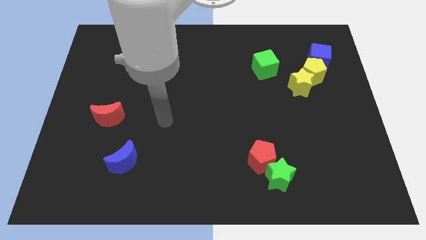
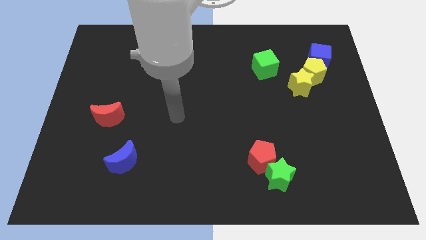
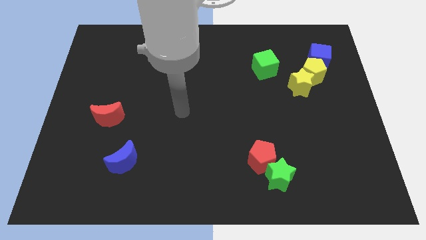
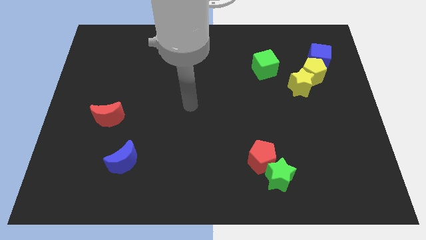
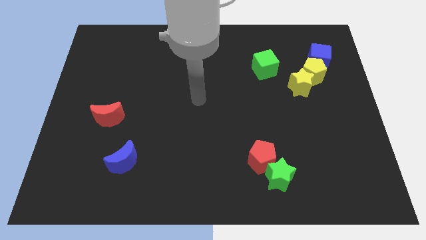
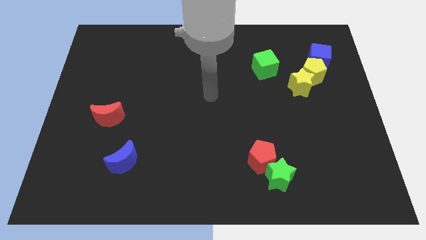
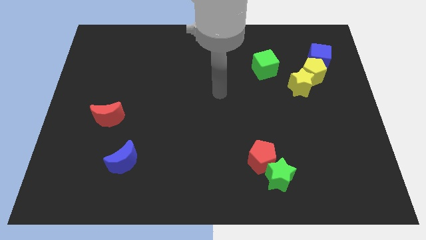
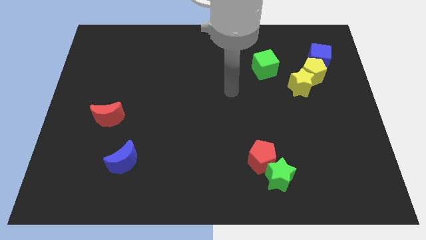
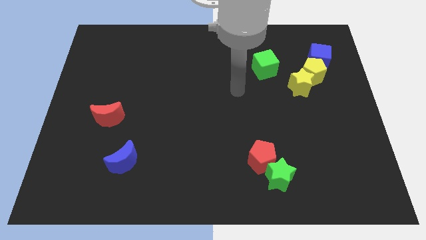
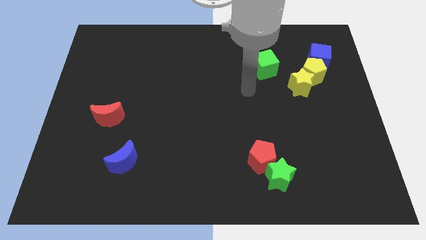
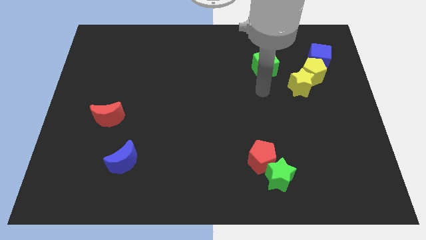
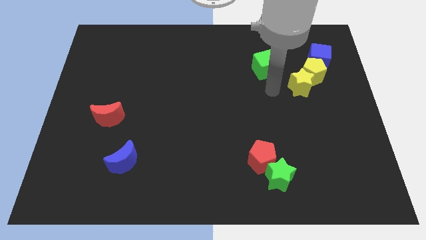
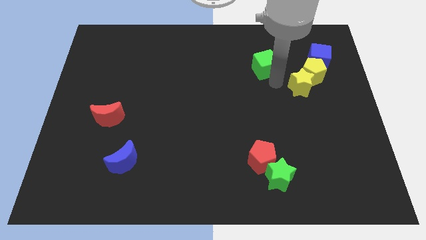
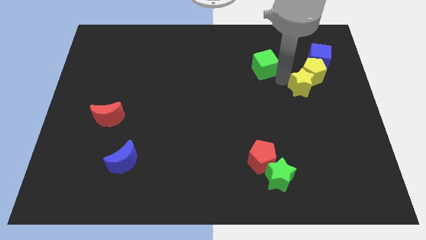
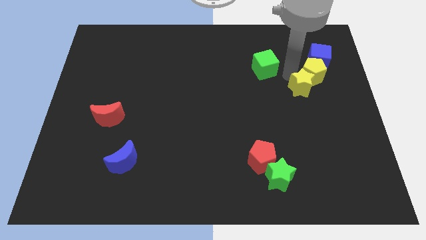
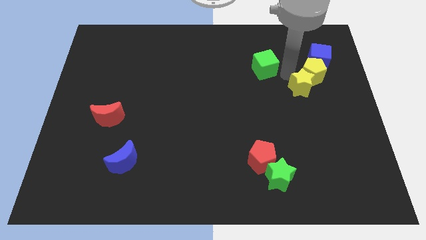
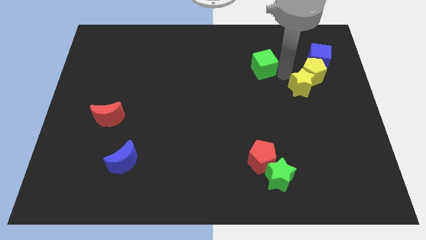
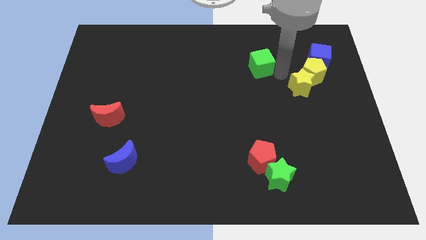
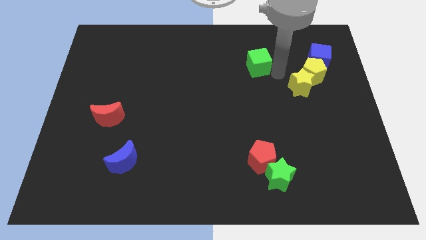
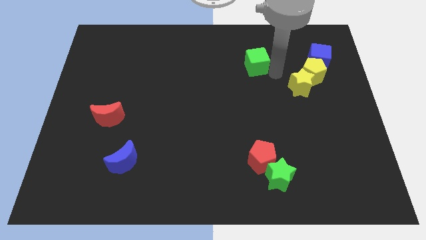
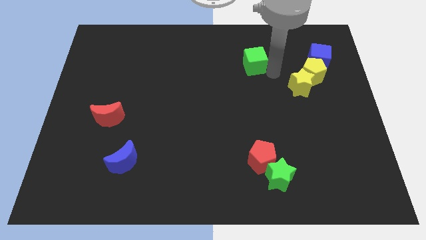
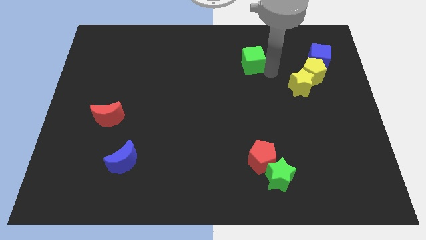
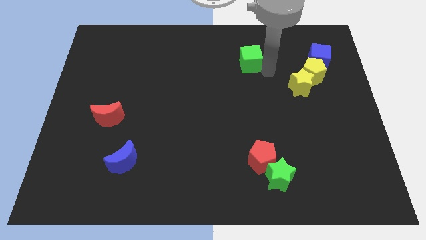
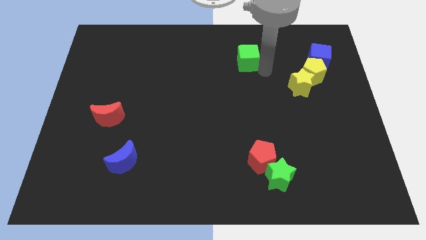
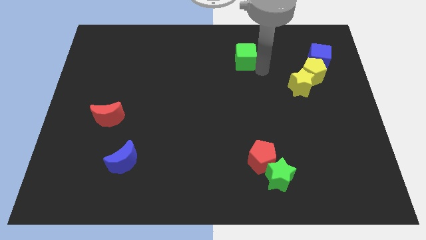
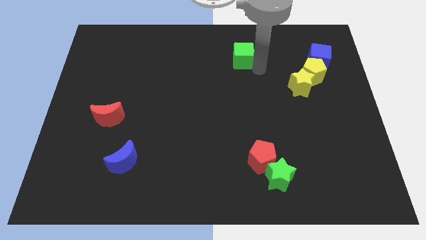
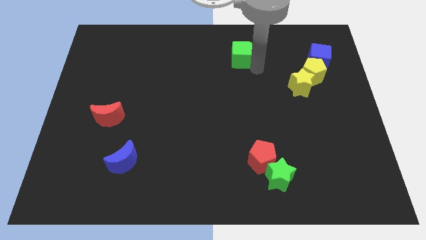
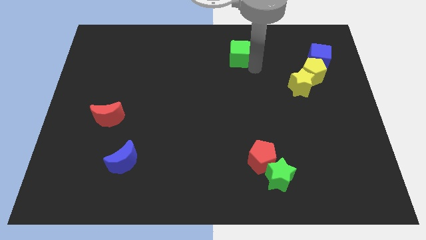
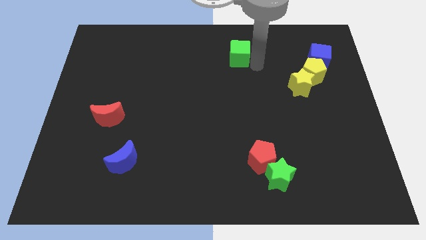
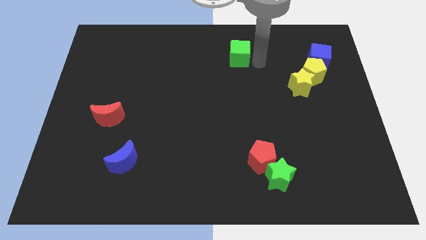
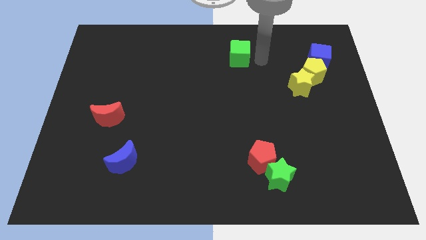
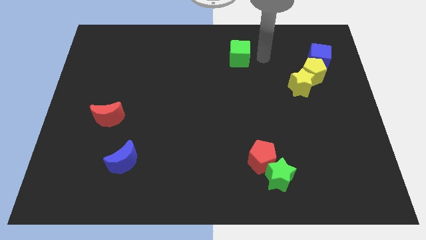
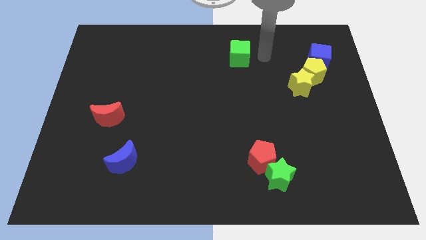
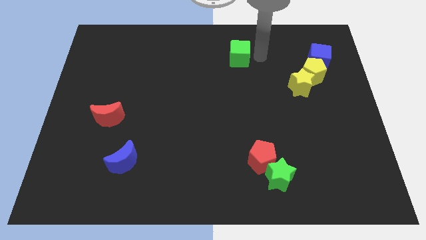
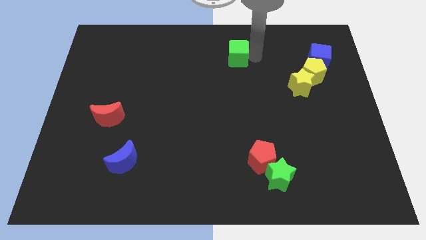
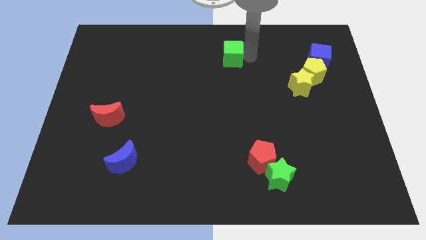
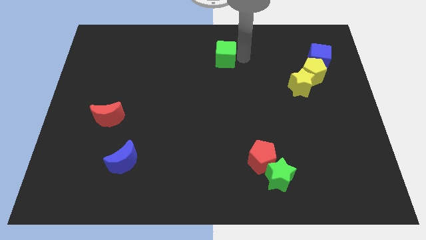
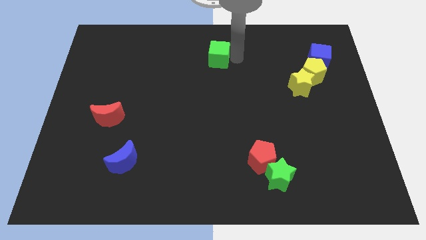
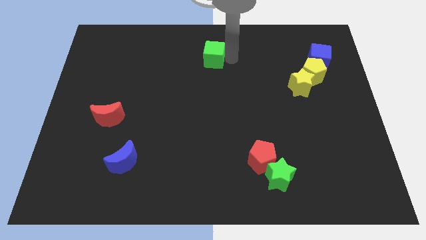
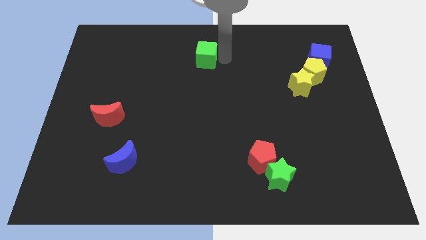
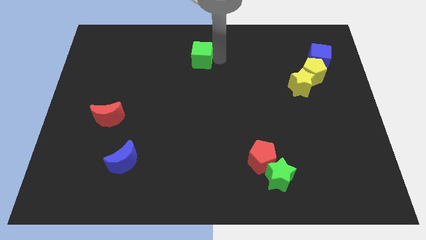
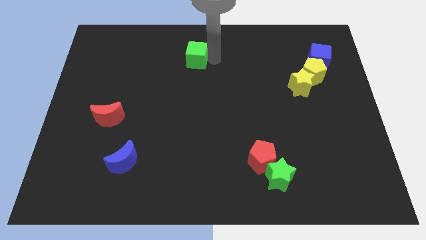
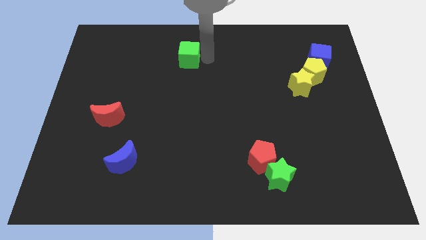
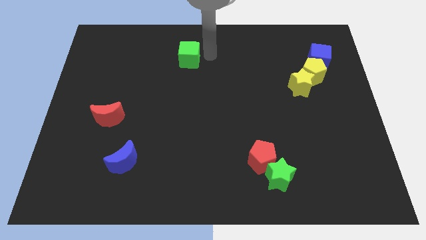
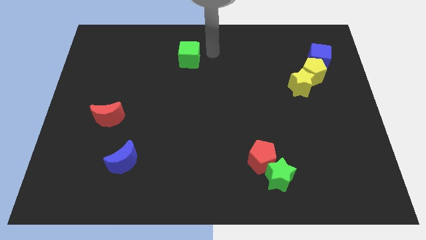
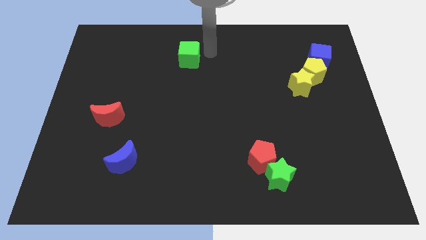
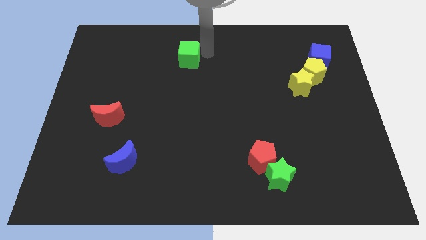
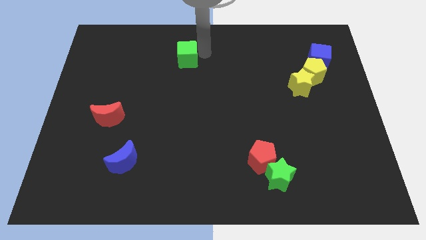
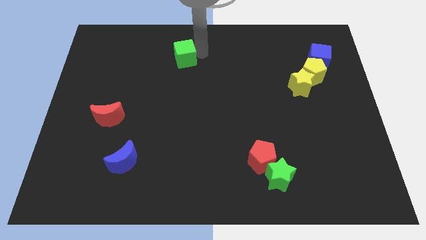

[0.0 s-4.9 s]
push the green cube left

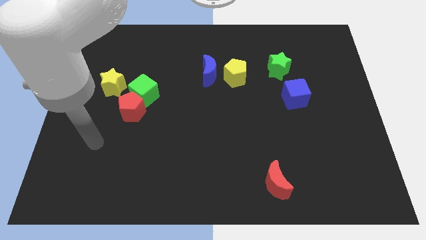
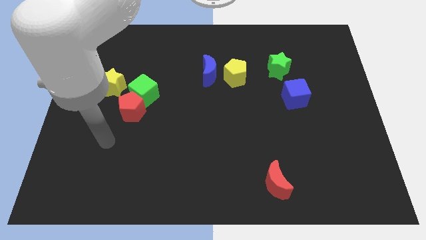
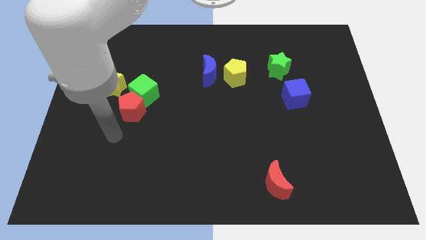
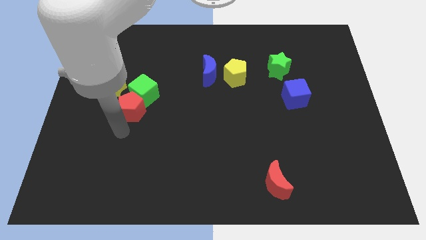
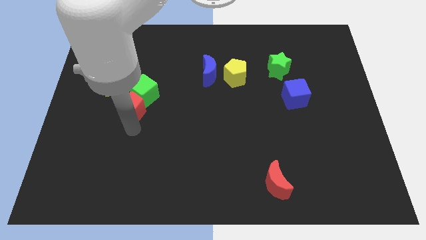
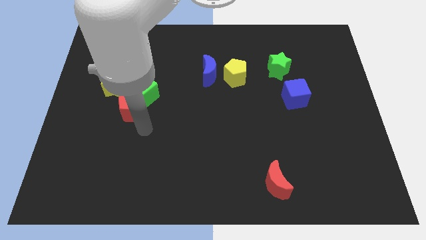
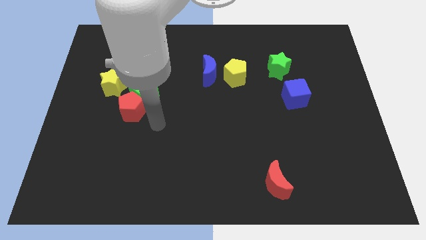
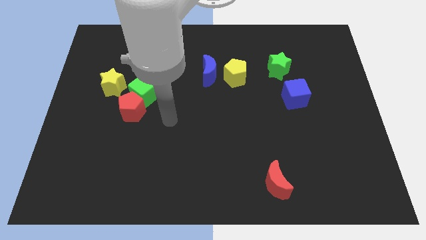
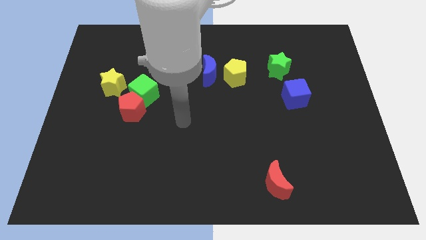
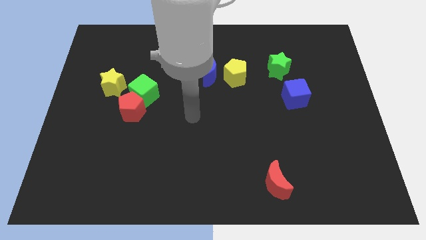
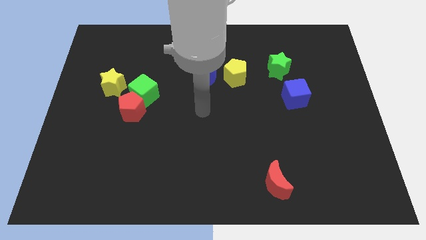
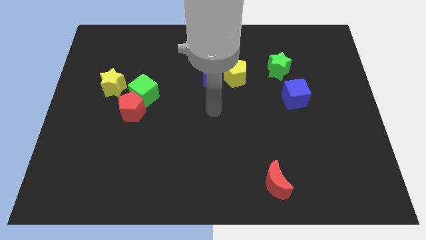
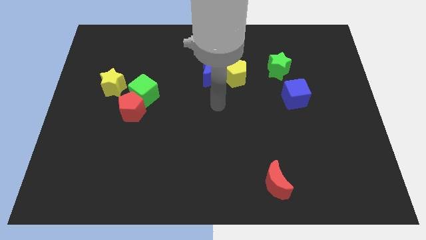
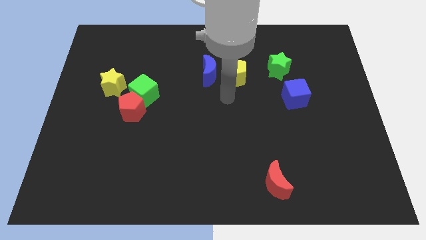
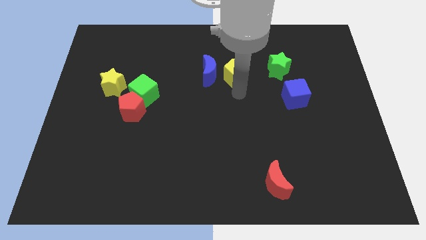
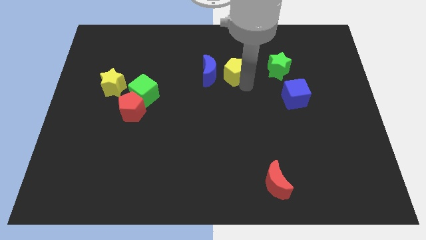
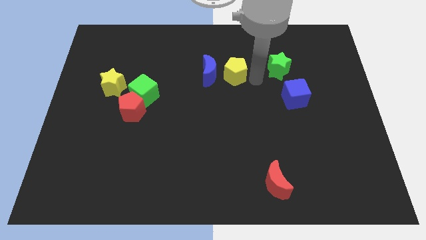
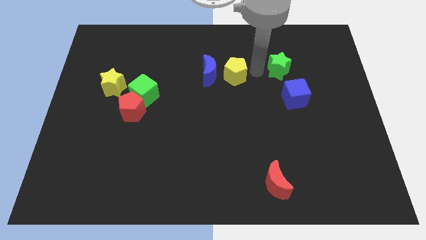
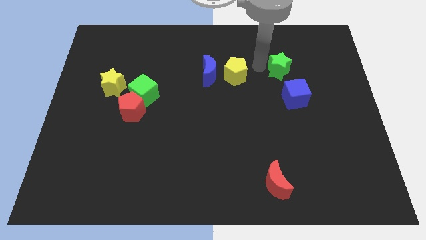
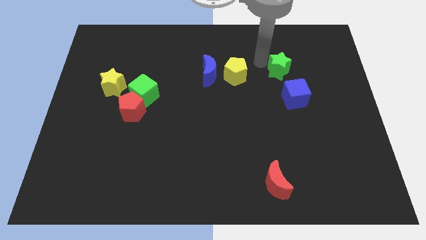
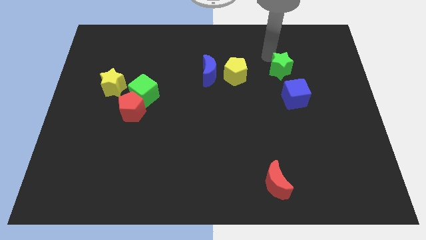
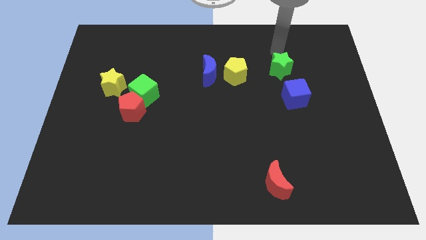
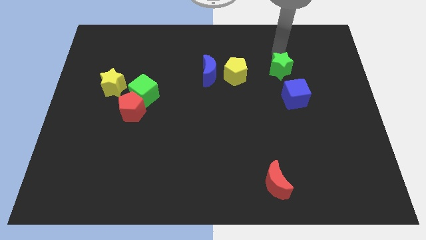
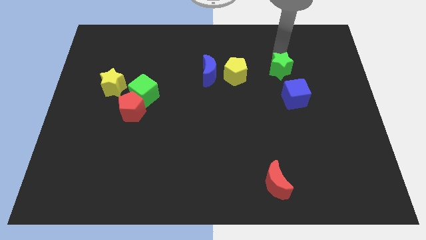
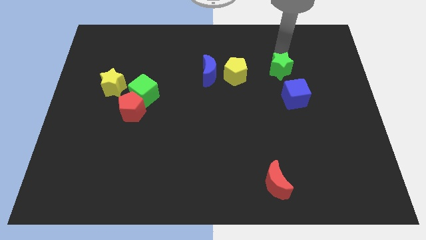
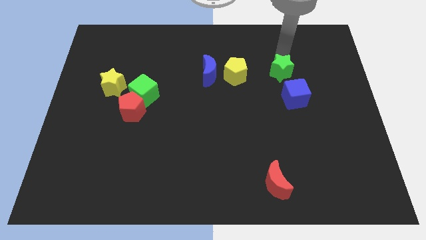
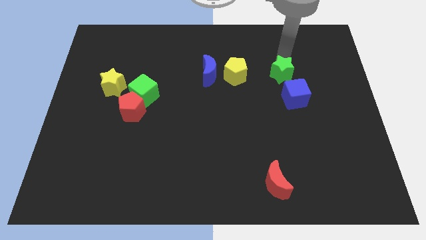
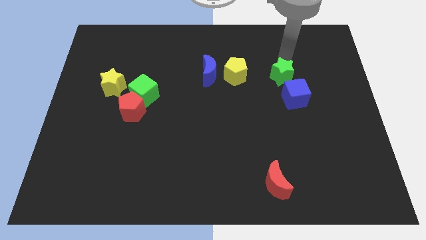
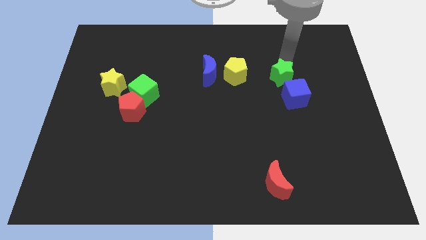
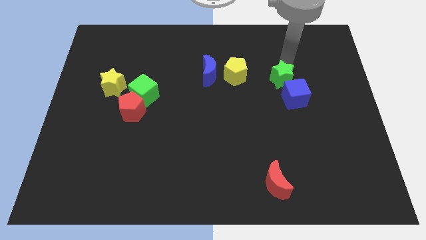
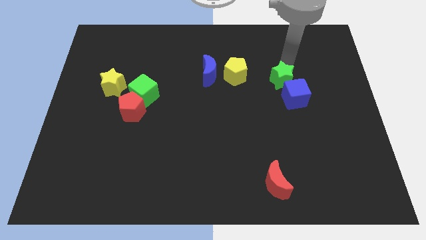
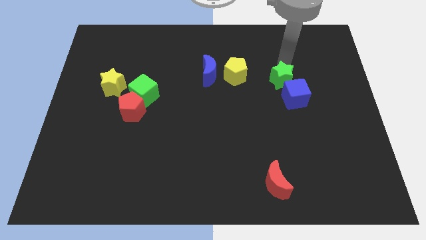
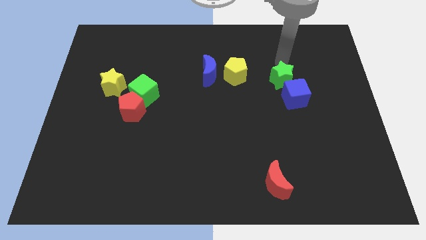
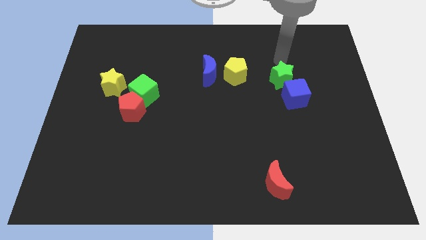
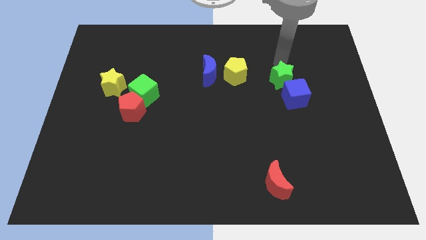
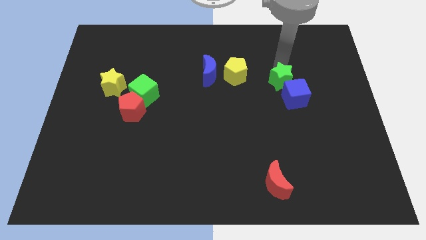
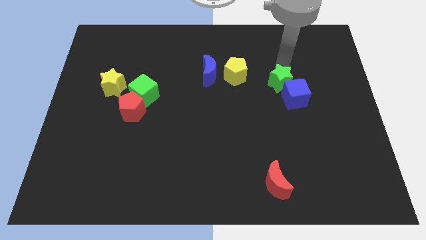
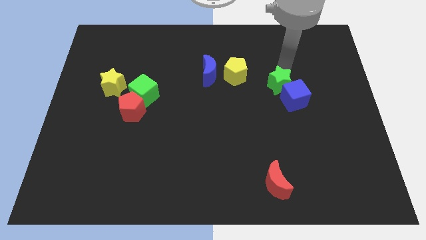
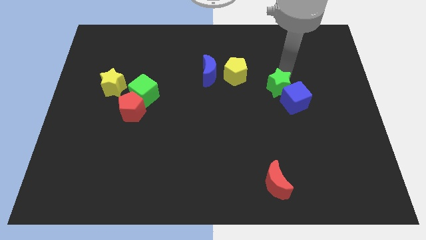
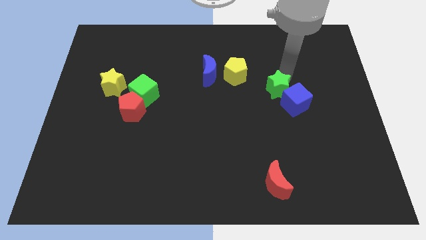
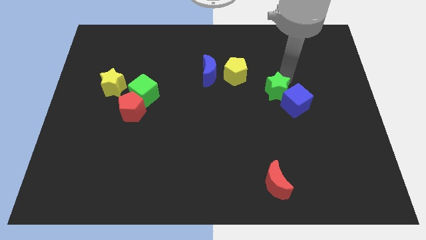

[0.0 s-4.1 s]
push the green star somewhat down
